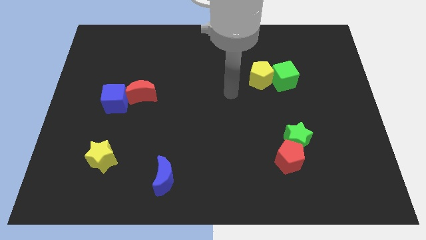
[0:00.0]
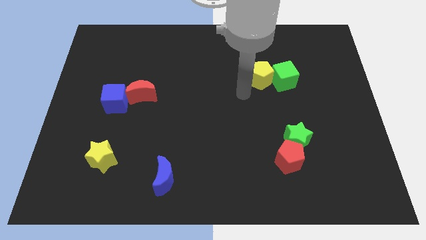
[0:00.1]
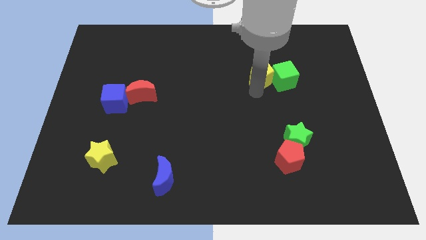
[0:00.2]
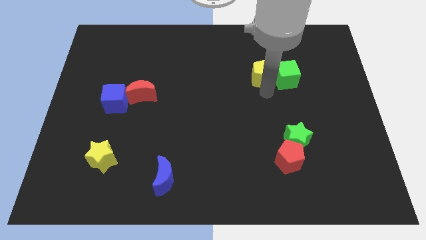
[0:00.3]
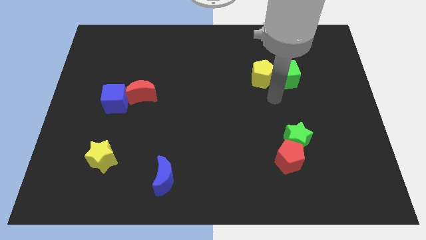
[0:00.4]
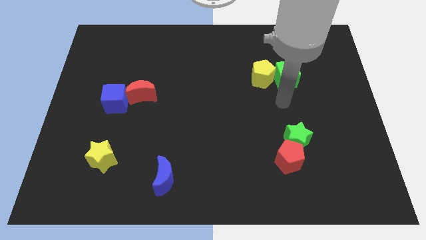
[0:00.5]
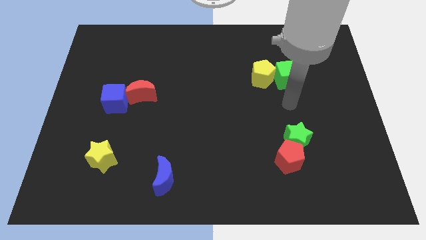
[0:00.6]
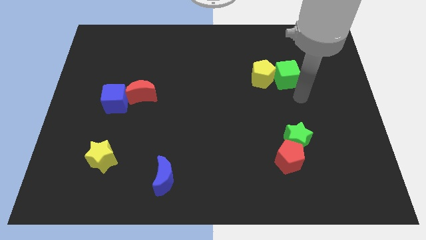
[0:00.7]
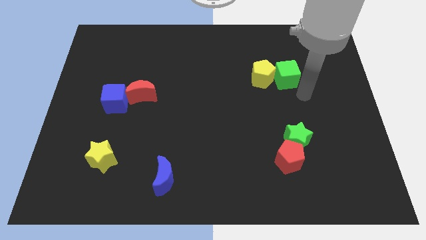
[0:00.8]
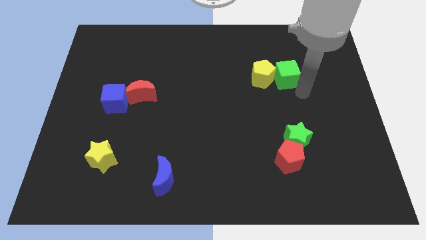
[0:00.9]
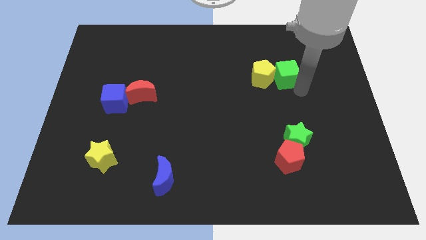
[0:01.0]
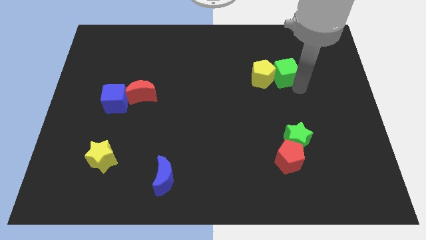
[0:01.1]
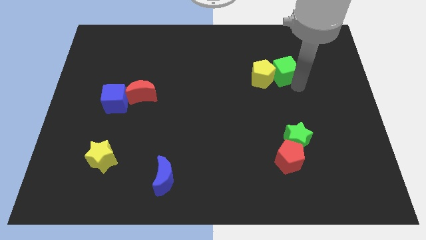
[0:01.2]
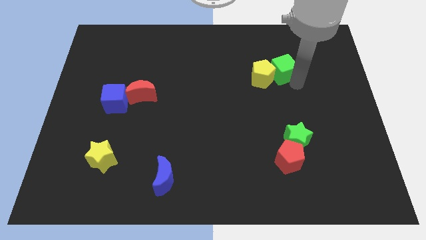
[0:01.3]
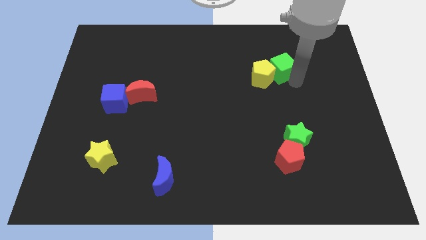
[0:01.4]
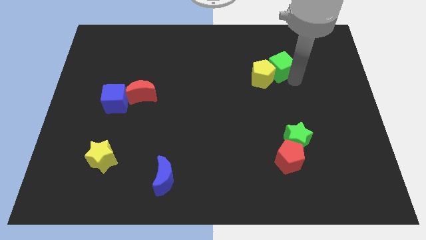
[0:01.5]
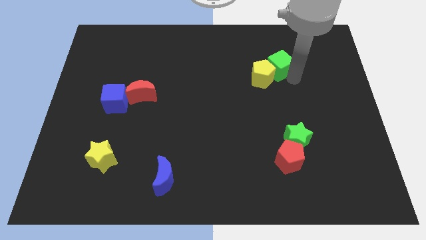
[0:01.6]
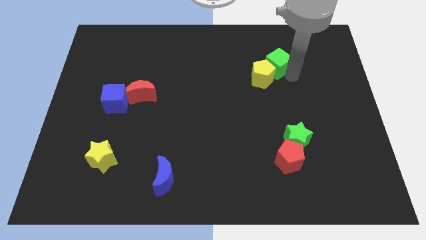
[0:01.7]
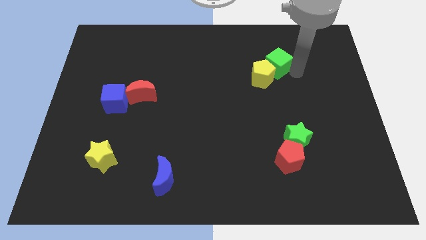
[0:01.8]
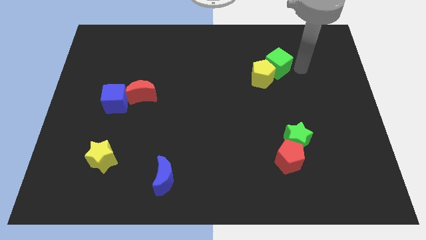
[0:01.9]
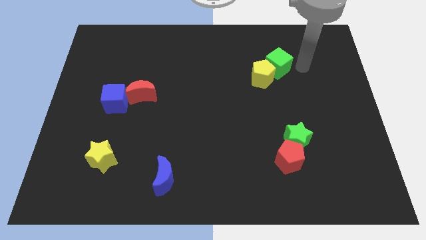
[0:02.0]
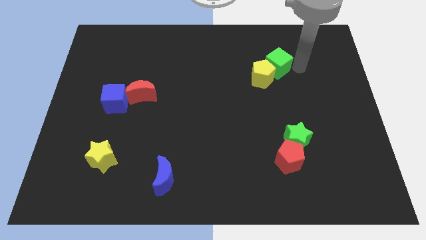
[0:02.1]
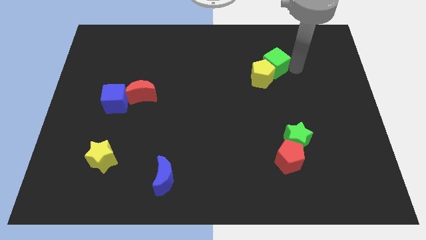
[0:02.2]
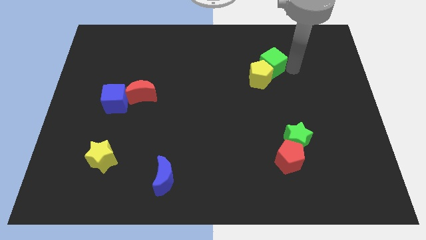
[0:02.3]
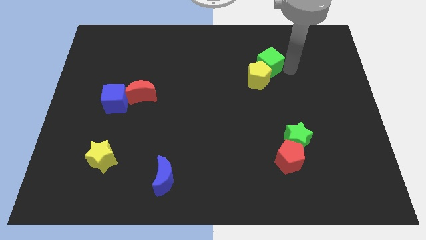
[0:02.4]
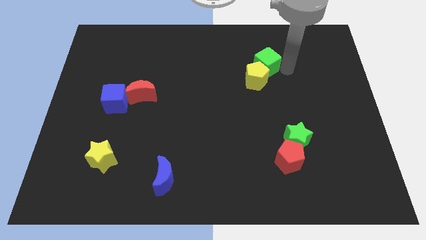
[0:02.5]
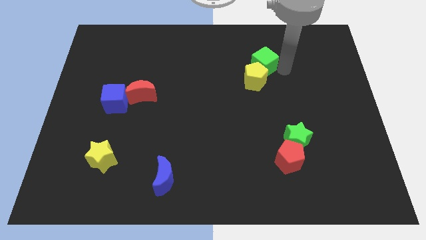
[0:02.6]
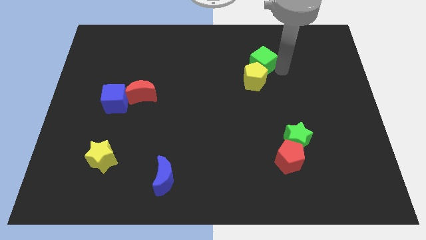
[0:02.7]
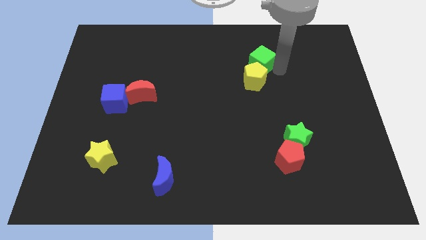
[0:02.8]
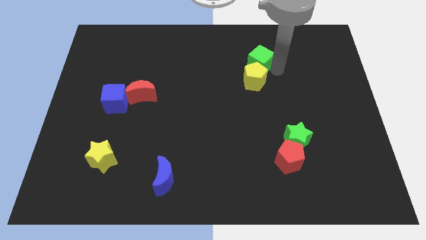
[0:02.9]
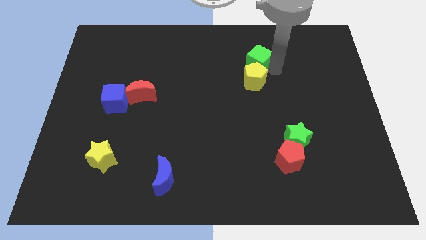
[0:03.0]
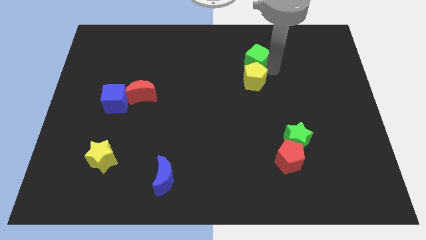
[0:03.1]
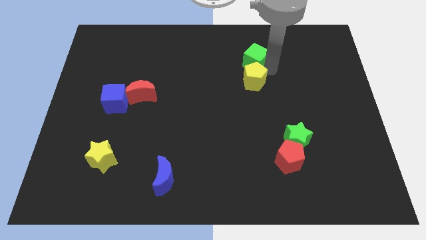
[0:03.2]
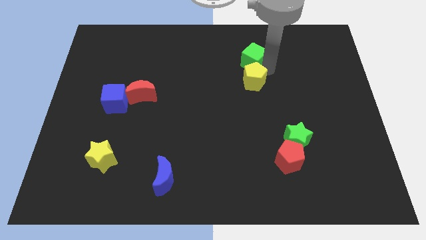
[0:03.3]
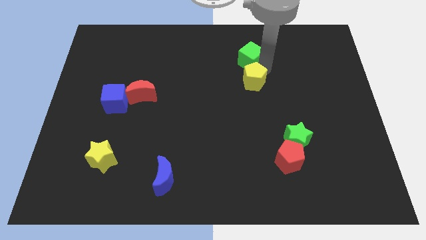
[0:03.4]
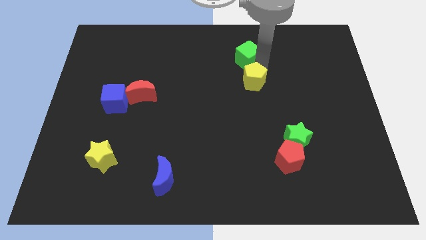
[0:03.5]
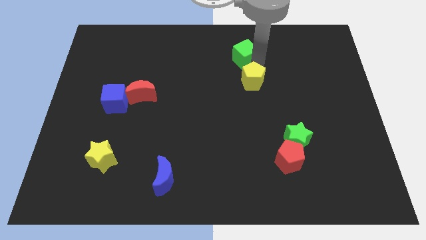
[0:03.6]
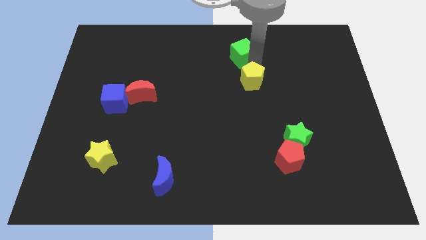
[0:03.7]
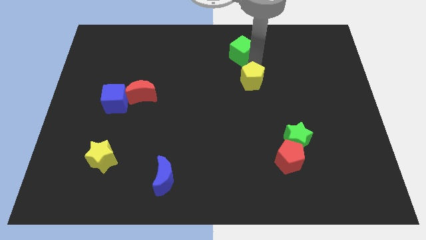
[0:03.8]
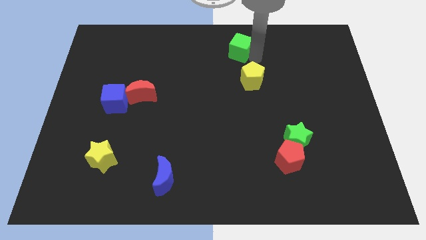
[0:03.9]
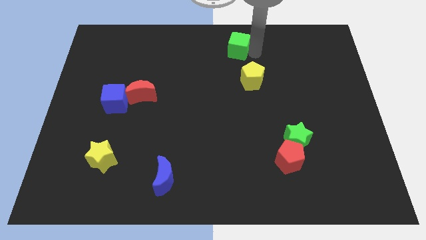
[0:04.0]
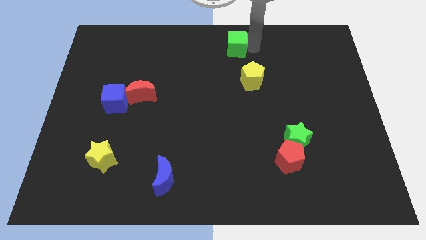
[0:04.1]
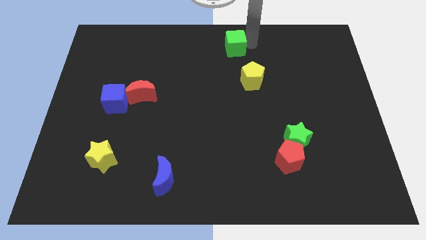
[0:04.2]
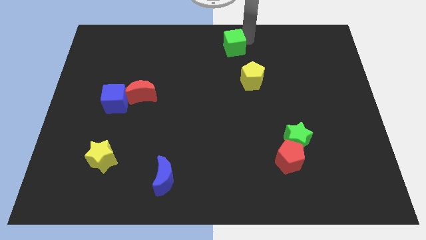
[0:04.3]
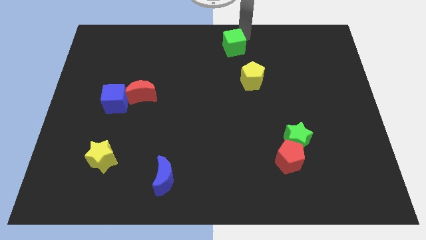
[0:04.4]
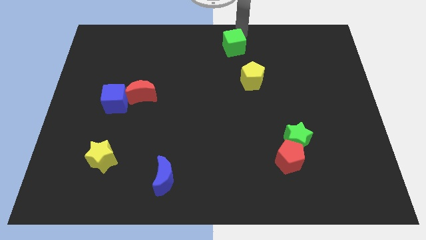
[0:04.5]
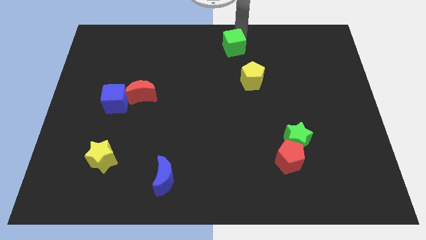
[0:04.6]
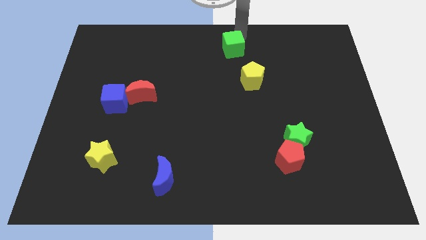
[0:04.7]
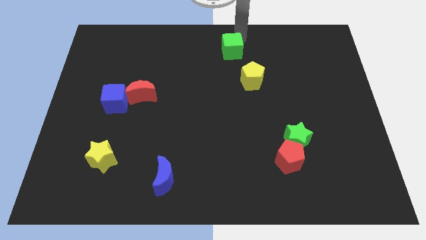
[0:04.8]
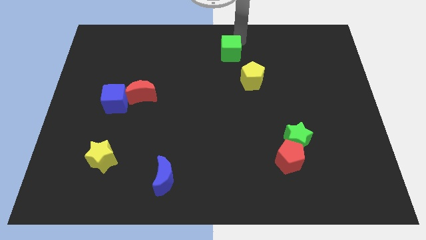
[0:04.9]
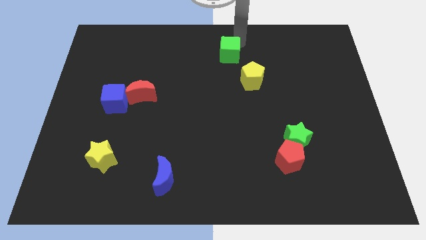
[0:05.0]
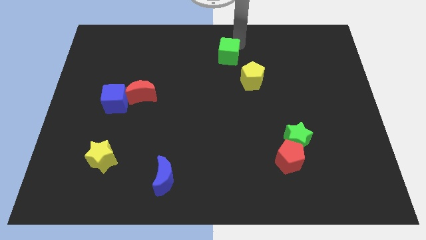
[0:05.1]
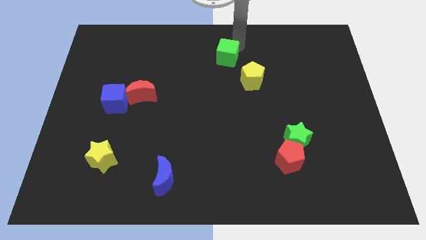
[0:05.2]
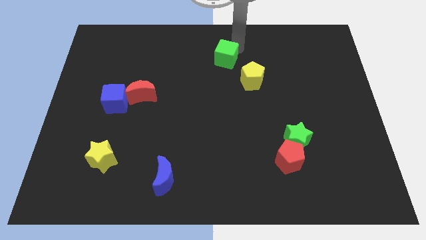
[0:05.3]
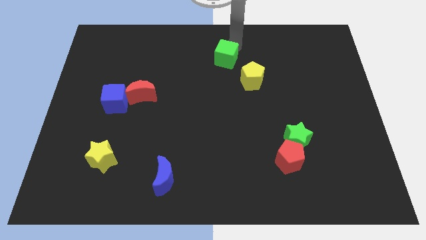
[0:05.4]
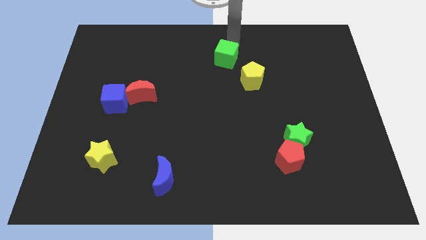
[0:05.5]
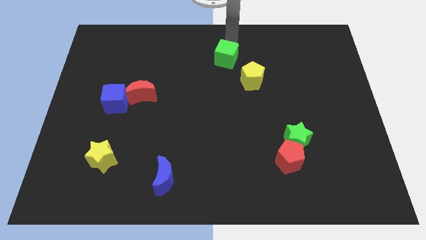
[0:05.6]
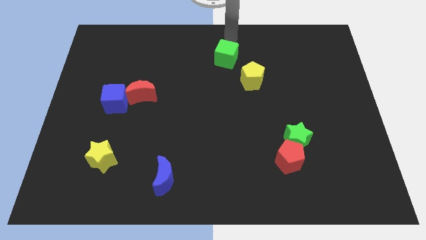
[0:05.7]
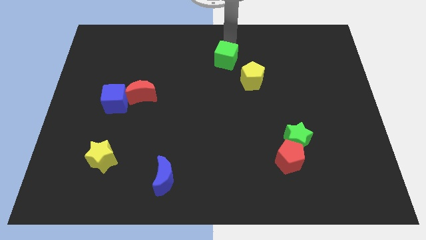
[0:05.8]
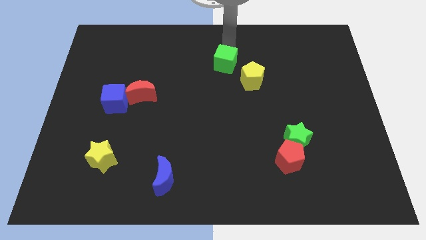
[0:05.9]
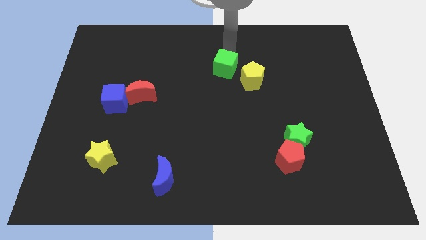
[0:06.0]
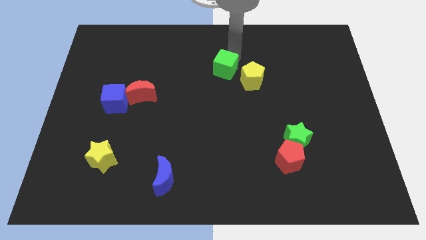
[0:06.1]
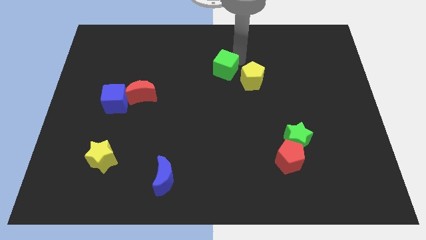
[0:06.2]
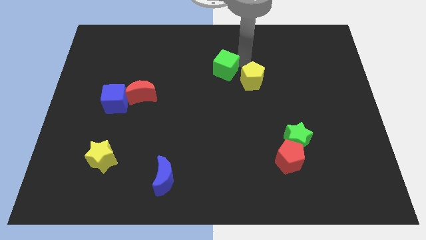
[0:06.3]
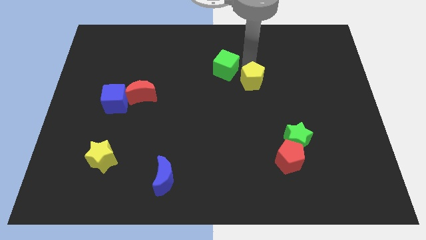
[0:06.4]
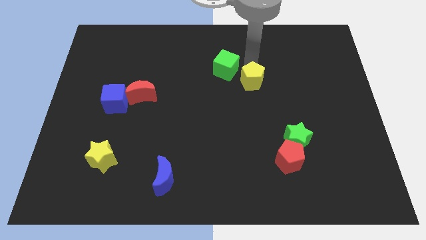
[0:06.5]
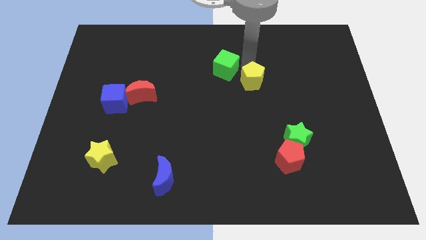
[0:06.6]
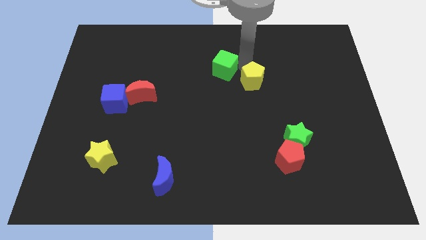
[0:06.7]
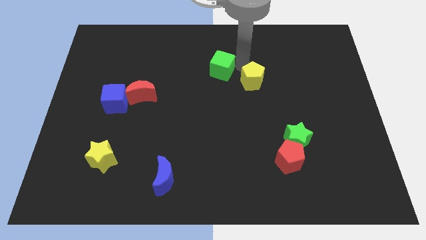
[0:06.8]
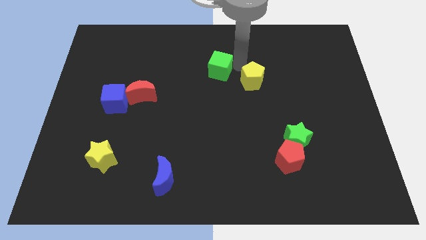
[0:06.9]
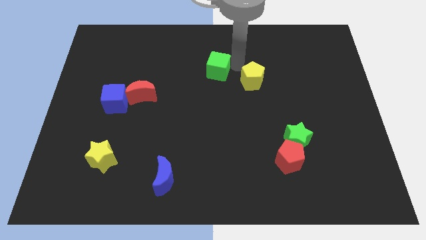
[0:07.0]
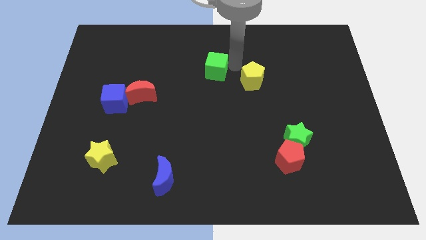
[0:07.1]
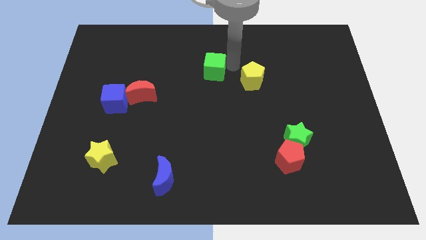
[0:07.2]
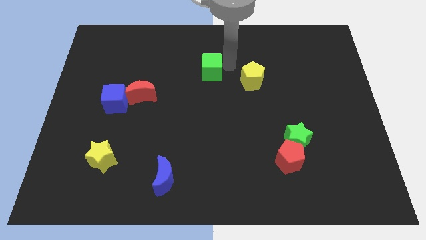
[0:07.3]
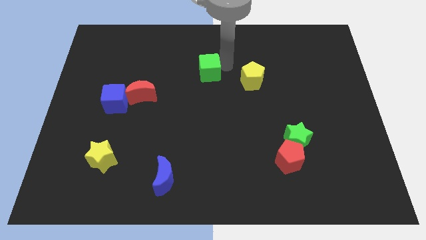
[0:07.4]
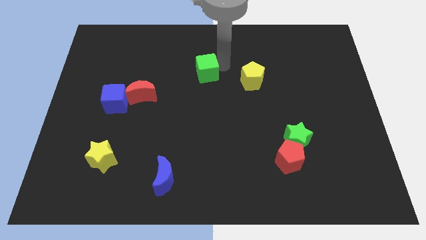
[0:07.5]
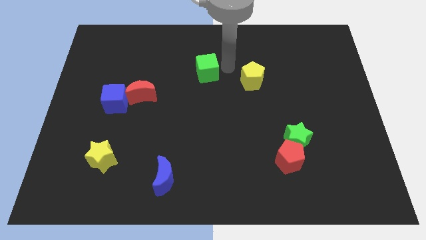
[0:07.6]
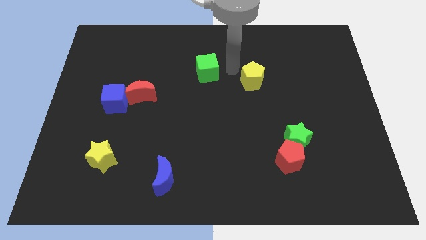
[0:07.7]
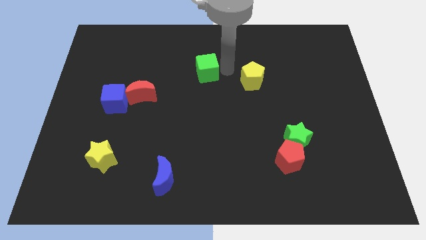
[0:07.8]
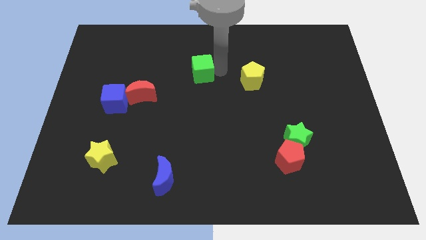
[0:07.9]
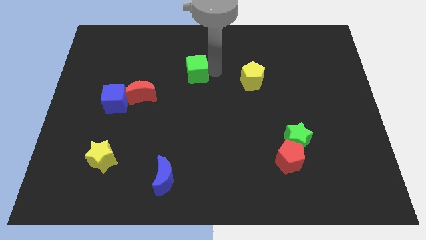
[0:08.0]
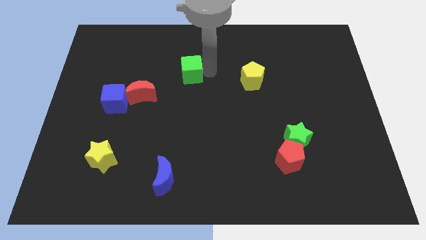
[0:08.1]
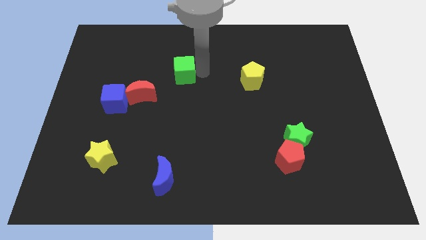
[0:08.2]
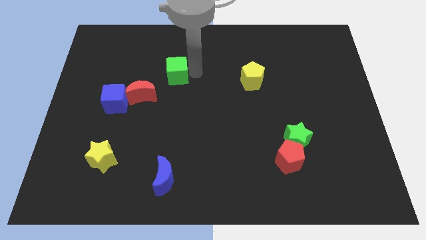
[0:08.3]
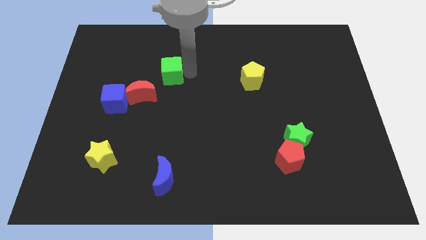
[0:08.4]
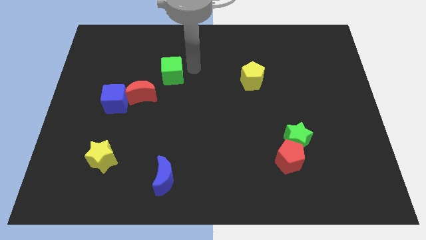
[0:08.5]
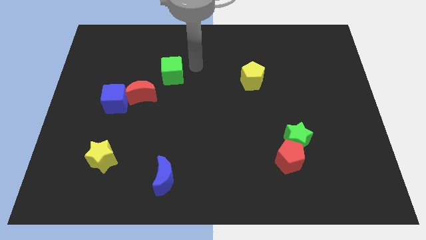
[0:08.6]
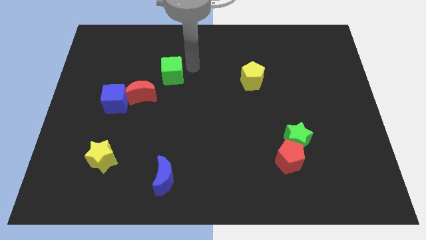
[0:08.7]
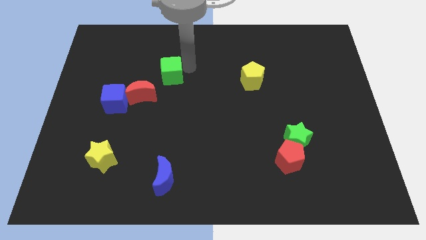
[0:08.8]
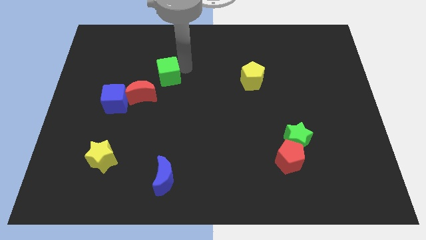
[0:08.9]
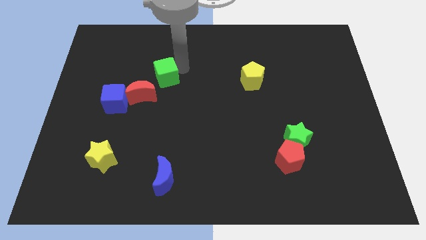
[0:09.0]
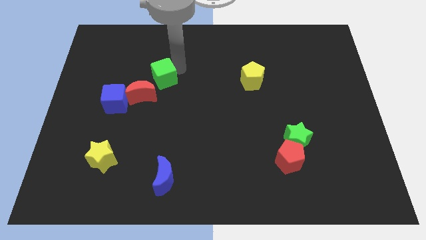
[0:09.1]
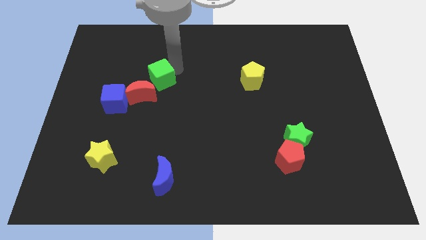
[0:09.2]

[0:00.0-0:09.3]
put the green cube to the top right side of the blue cube
